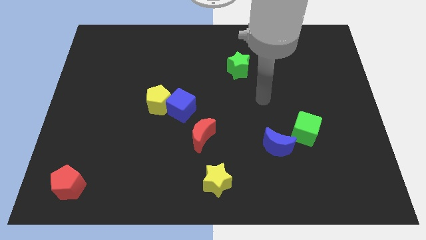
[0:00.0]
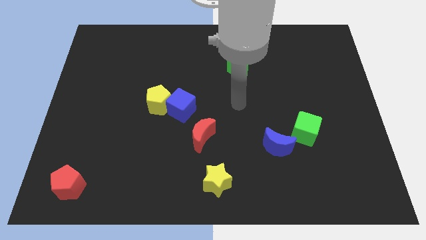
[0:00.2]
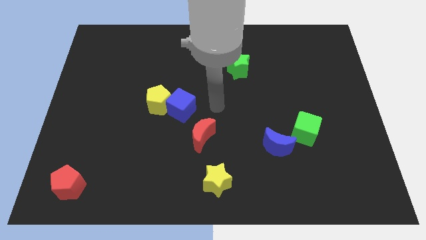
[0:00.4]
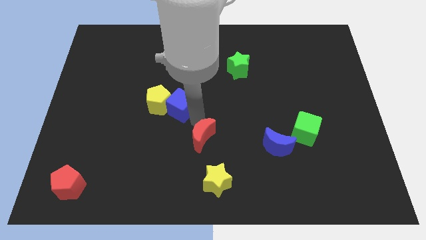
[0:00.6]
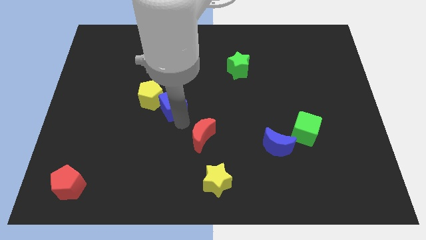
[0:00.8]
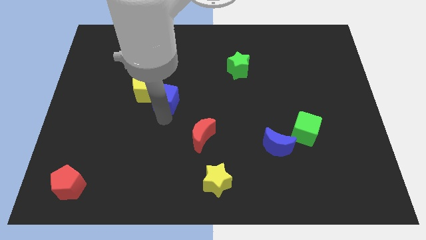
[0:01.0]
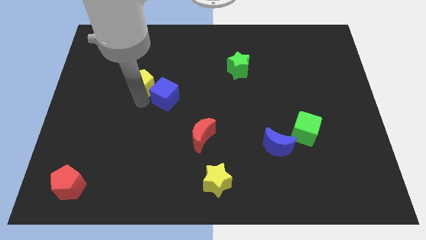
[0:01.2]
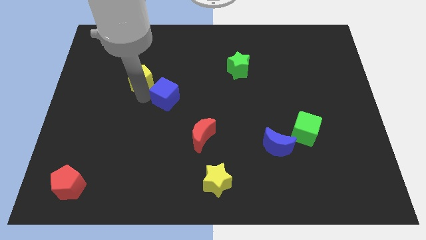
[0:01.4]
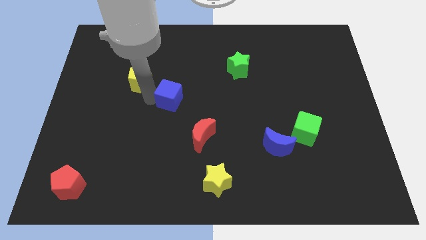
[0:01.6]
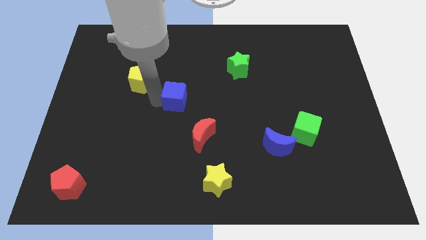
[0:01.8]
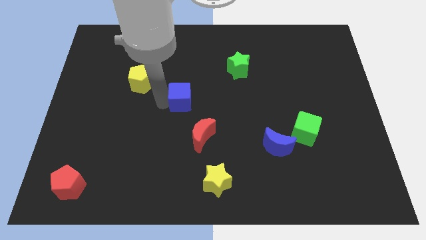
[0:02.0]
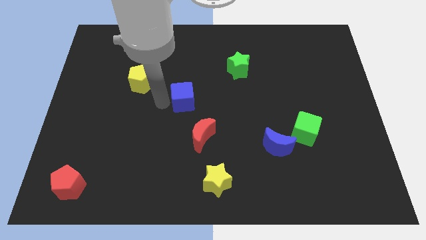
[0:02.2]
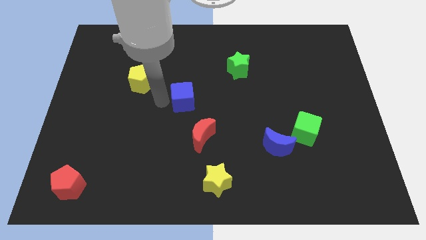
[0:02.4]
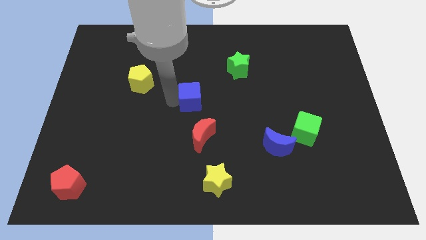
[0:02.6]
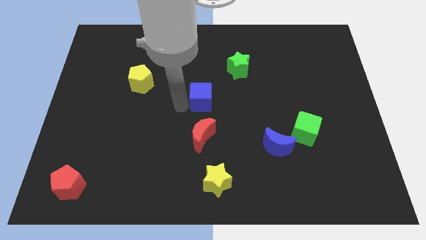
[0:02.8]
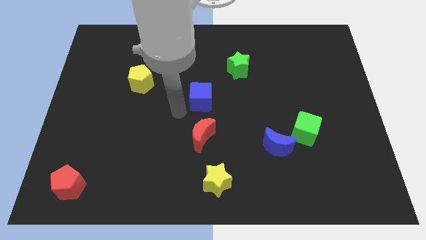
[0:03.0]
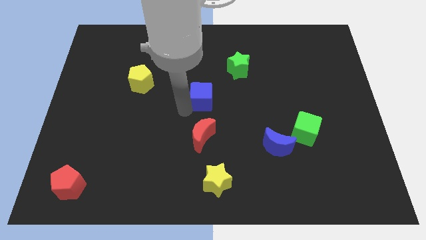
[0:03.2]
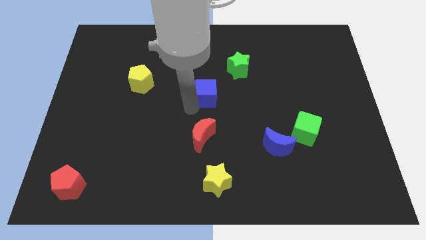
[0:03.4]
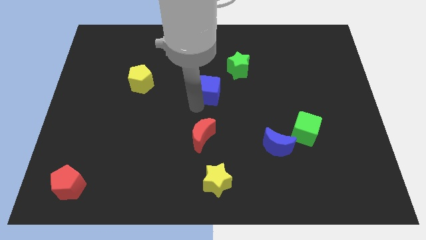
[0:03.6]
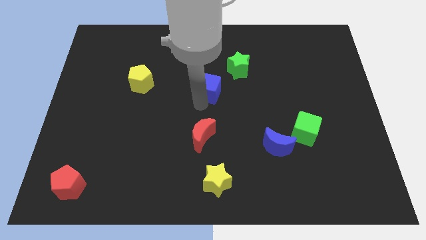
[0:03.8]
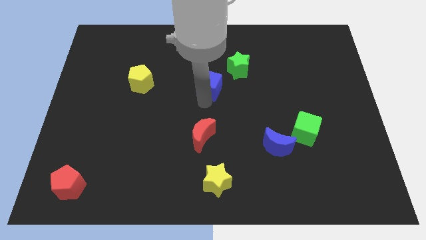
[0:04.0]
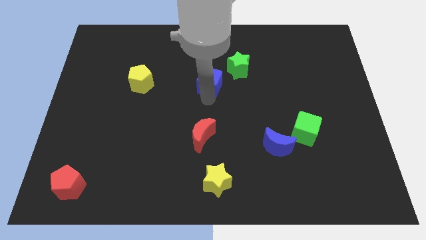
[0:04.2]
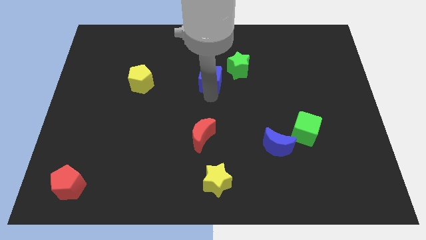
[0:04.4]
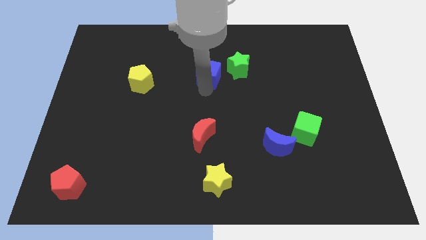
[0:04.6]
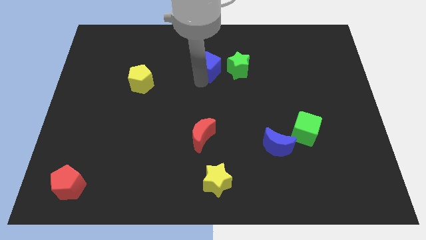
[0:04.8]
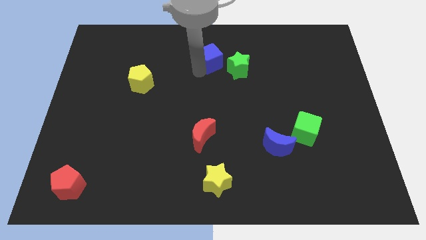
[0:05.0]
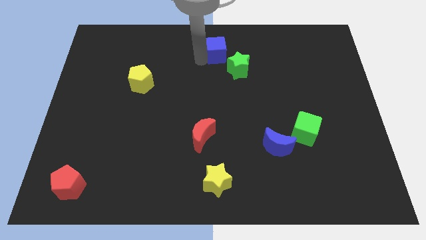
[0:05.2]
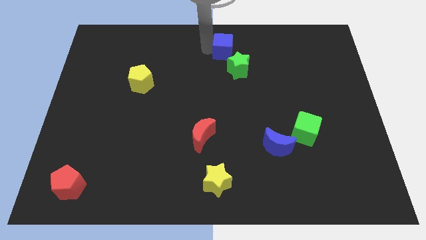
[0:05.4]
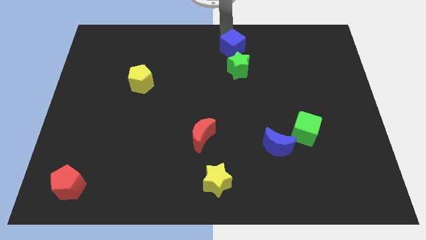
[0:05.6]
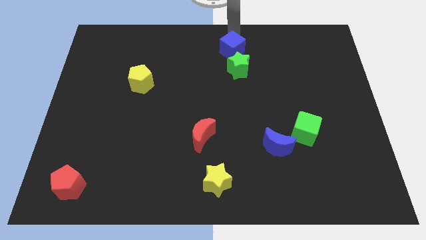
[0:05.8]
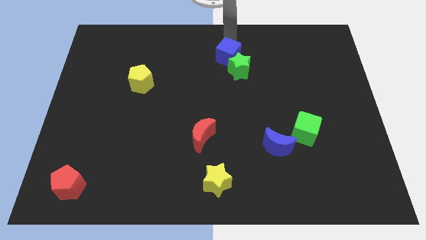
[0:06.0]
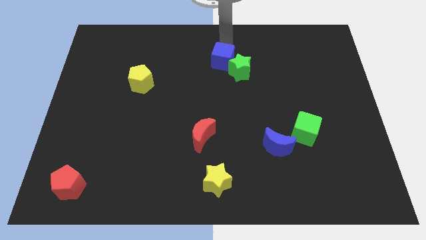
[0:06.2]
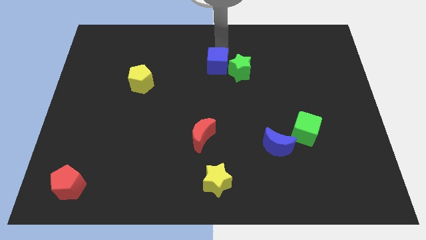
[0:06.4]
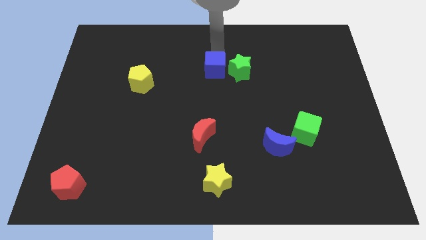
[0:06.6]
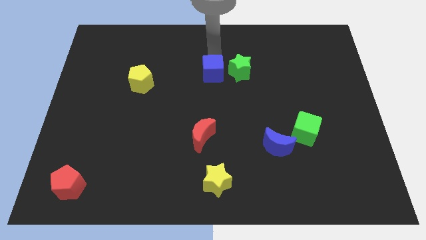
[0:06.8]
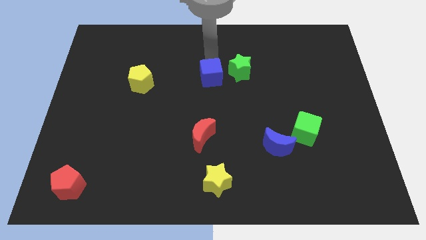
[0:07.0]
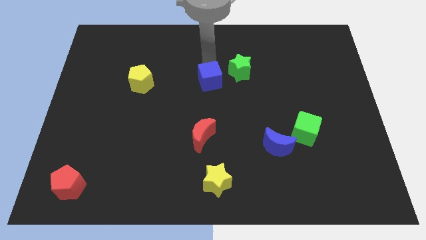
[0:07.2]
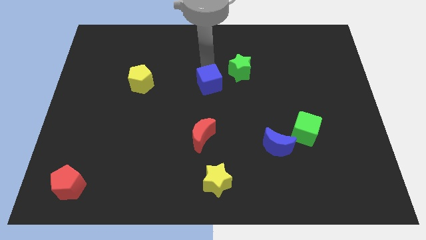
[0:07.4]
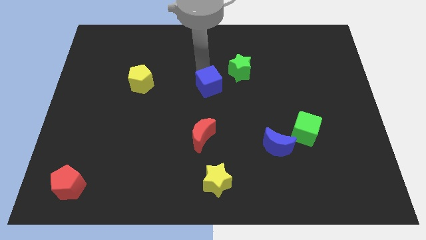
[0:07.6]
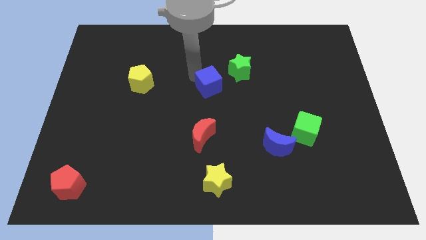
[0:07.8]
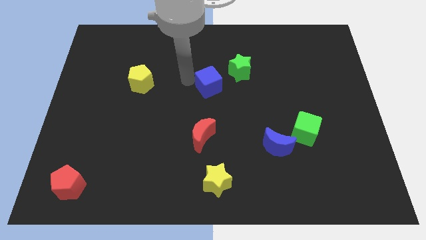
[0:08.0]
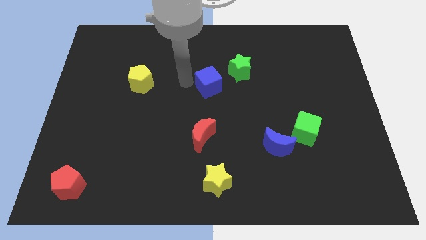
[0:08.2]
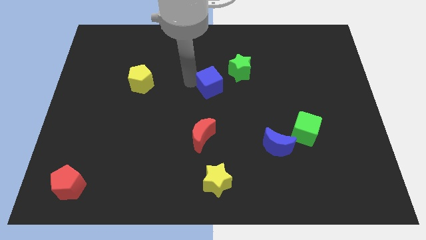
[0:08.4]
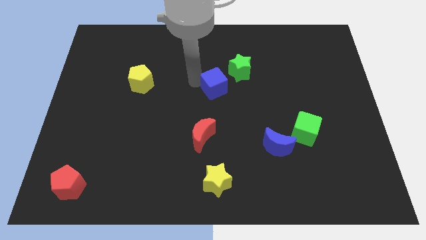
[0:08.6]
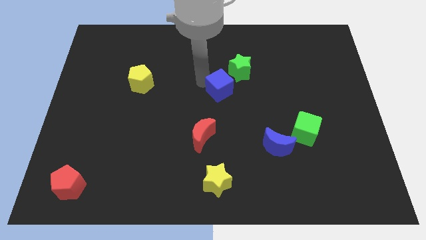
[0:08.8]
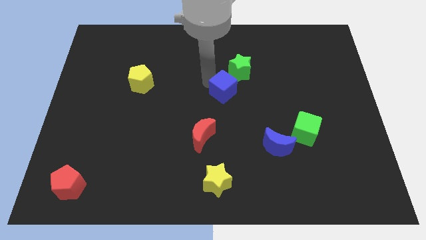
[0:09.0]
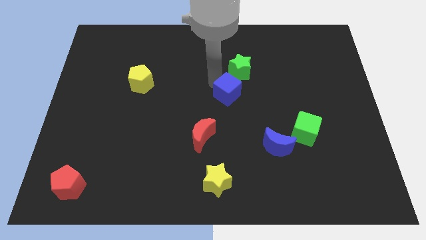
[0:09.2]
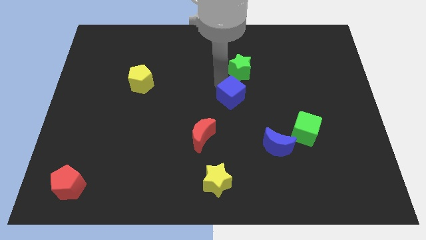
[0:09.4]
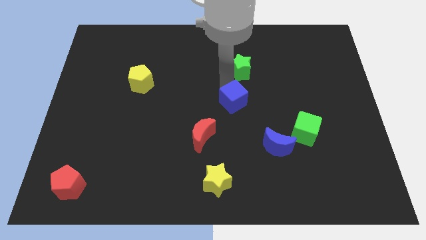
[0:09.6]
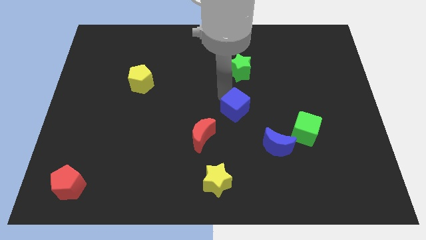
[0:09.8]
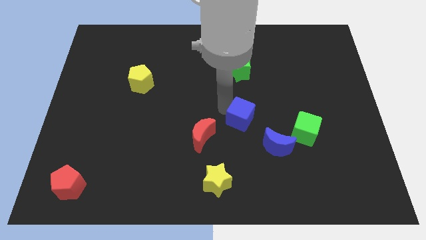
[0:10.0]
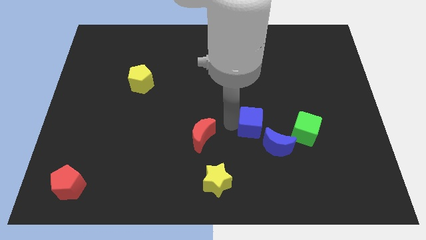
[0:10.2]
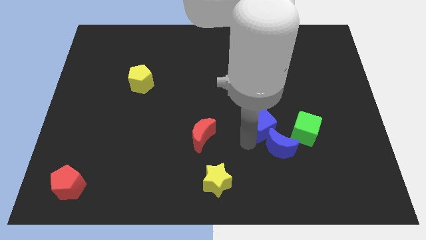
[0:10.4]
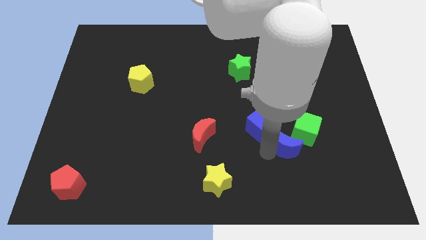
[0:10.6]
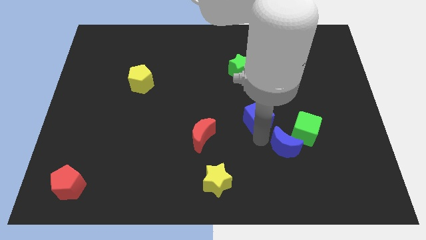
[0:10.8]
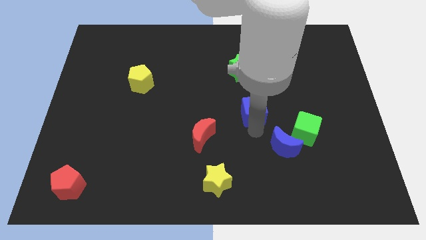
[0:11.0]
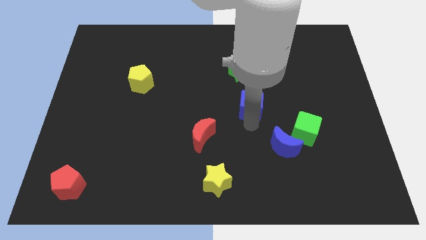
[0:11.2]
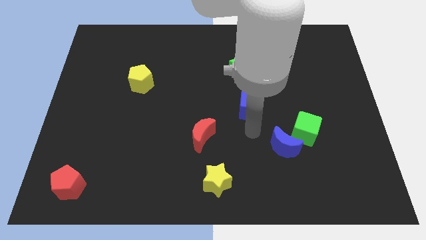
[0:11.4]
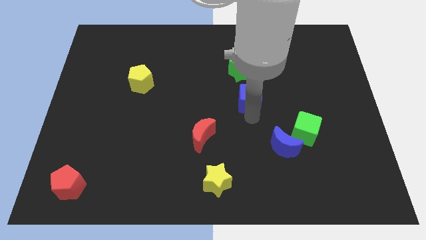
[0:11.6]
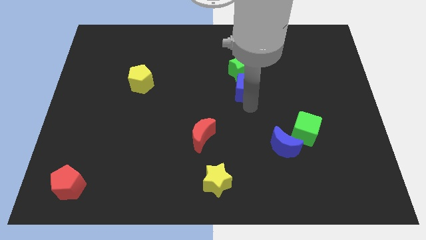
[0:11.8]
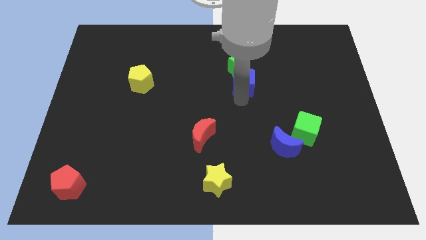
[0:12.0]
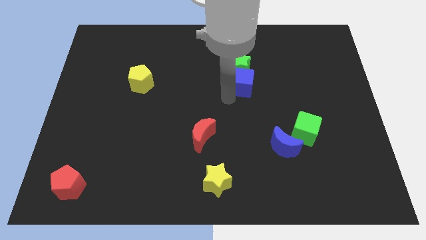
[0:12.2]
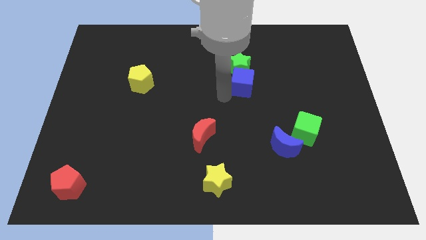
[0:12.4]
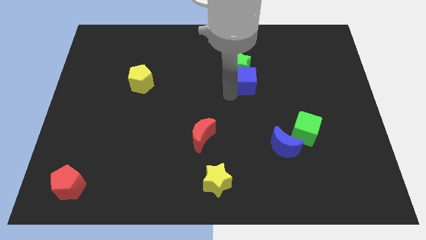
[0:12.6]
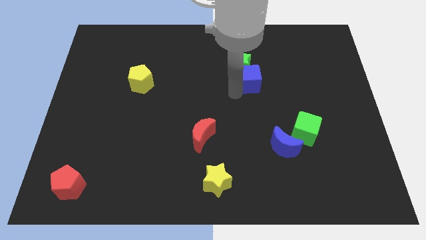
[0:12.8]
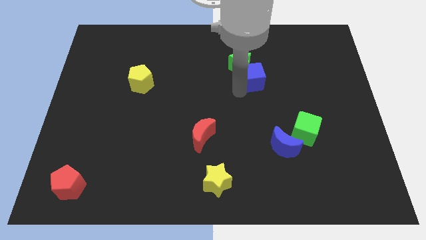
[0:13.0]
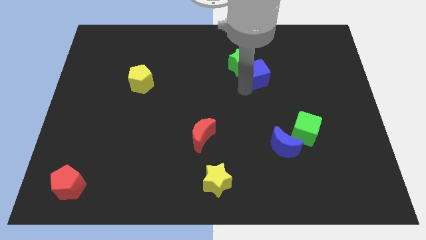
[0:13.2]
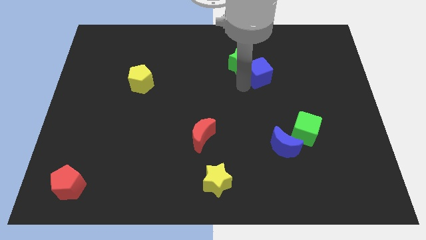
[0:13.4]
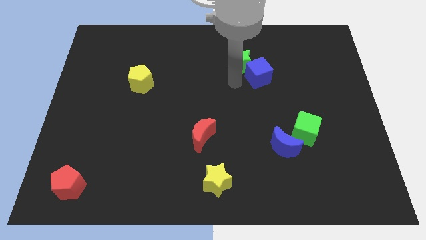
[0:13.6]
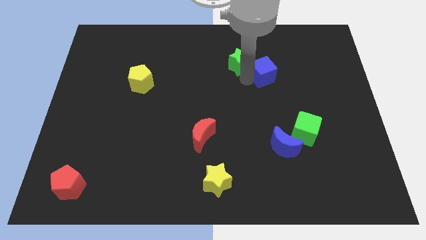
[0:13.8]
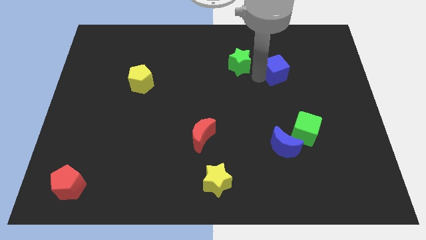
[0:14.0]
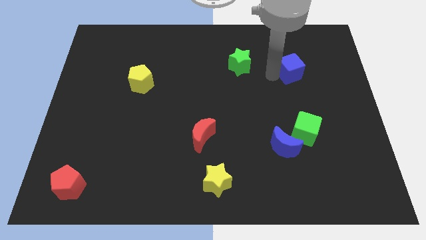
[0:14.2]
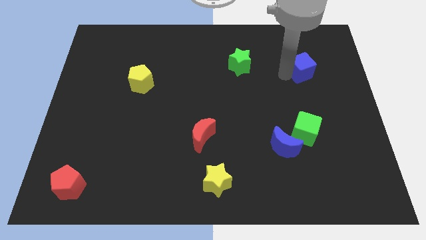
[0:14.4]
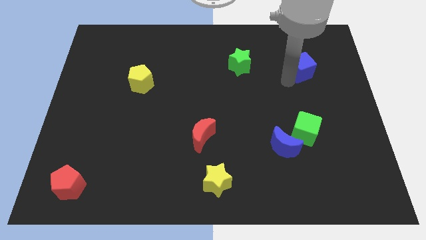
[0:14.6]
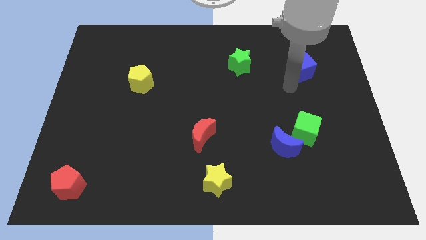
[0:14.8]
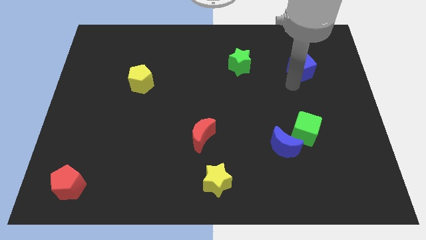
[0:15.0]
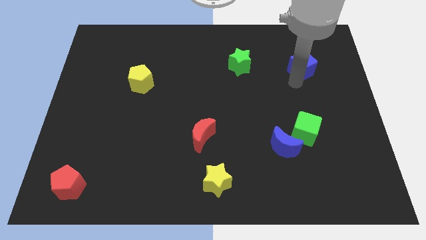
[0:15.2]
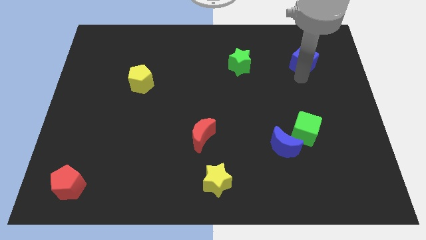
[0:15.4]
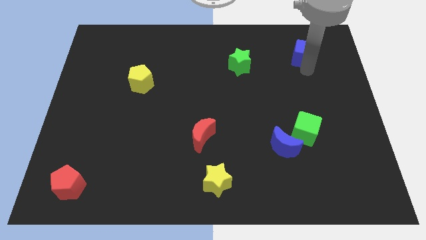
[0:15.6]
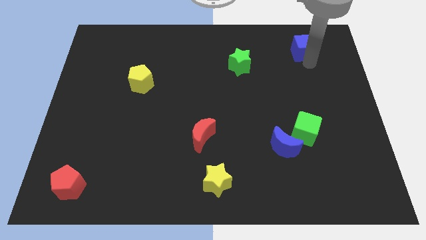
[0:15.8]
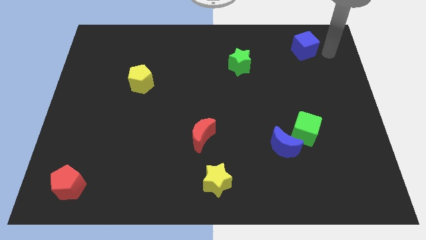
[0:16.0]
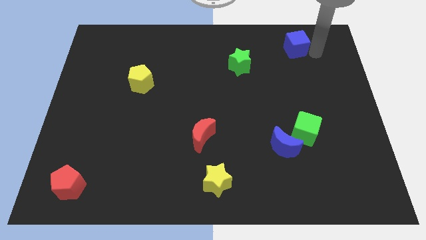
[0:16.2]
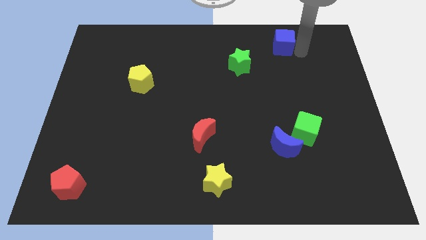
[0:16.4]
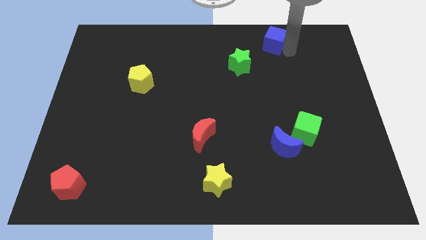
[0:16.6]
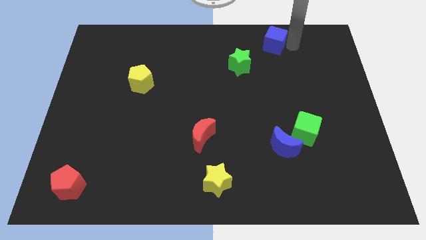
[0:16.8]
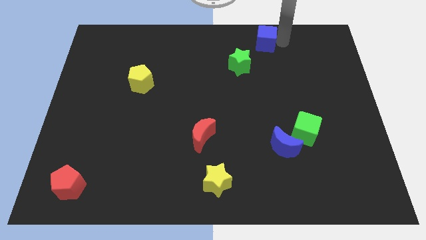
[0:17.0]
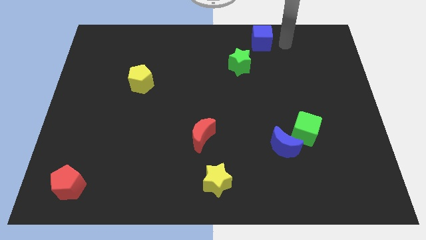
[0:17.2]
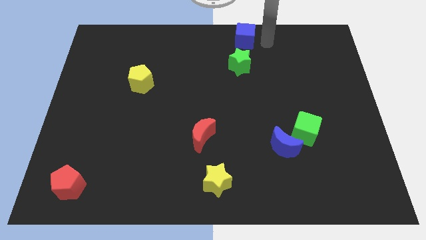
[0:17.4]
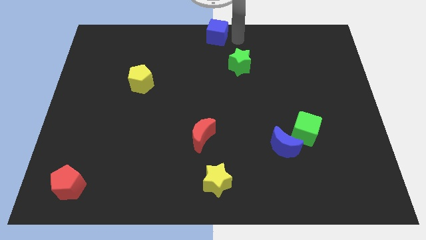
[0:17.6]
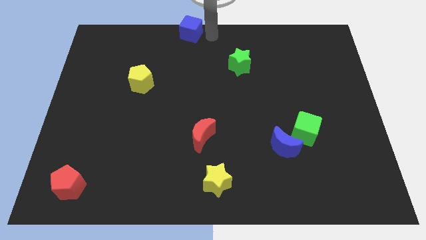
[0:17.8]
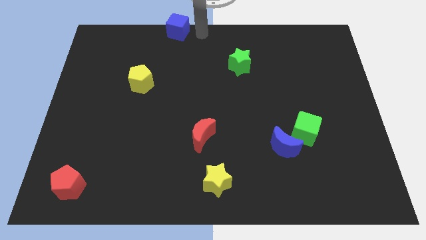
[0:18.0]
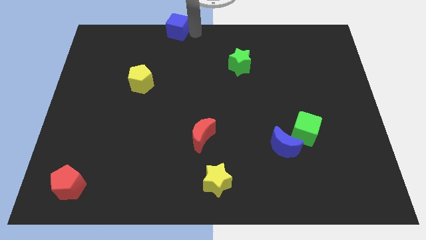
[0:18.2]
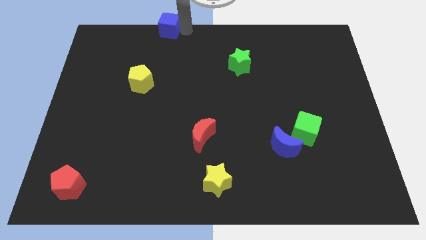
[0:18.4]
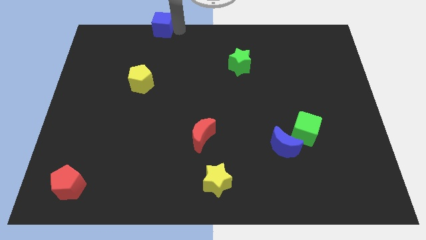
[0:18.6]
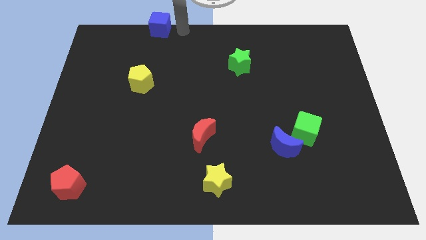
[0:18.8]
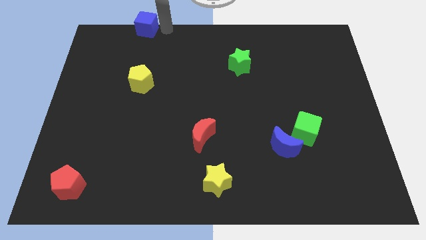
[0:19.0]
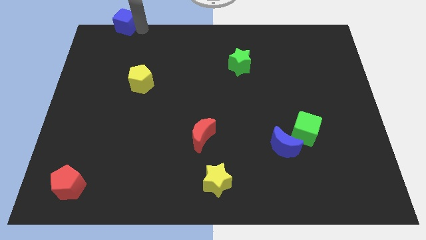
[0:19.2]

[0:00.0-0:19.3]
put the blue cube to the top left corner
